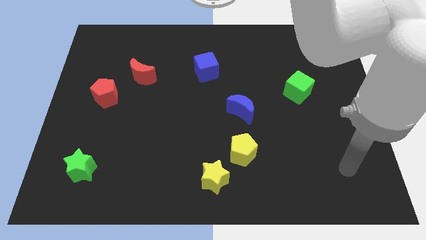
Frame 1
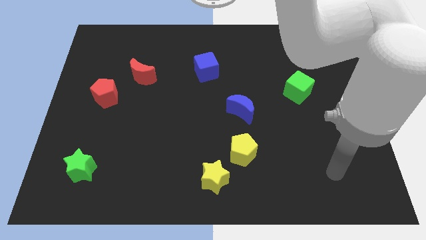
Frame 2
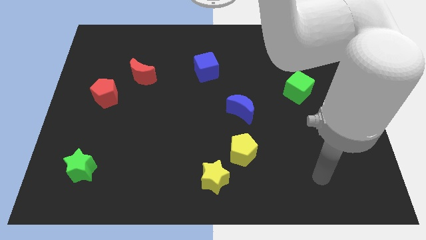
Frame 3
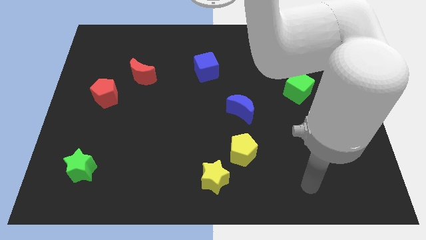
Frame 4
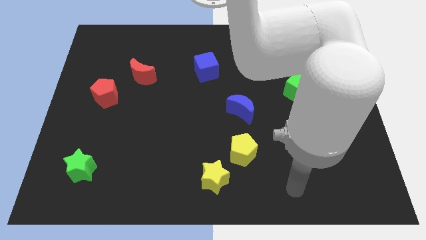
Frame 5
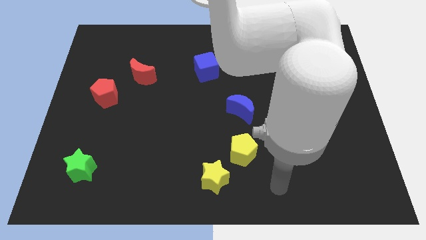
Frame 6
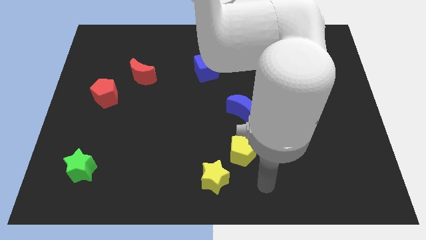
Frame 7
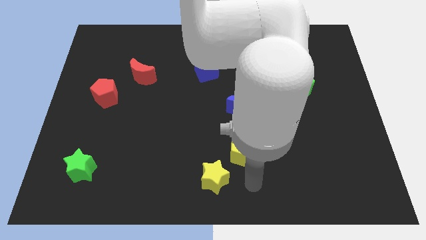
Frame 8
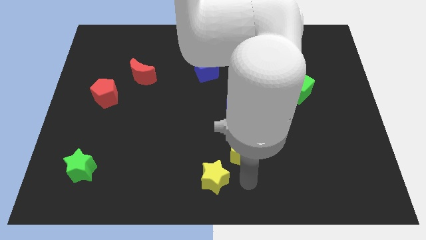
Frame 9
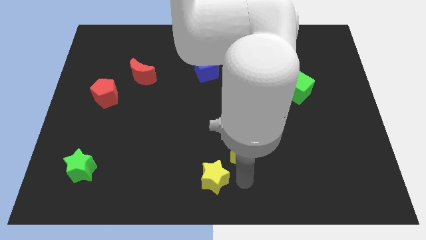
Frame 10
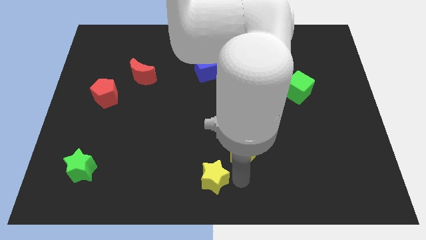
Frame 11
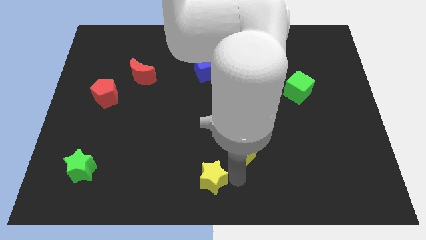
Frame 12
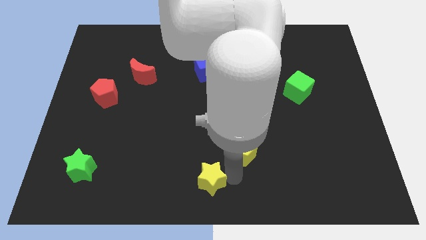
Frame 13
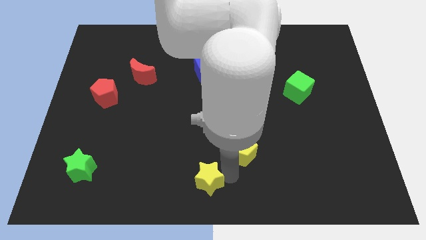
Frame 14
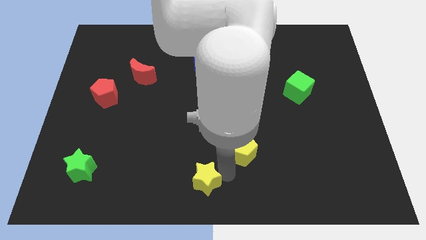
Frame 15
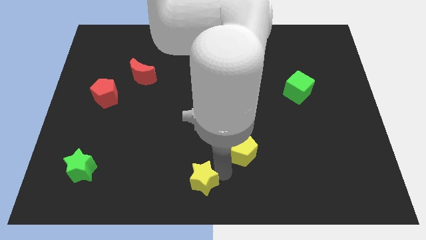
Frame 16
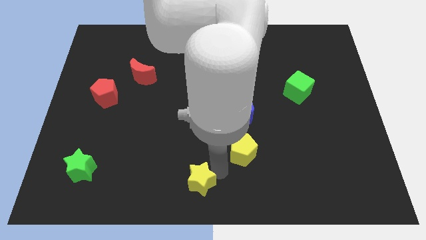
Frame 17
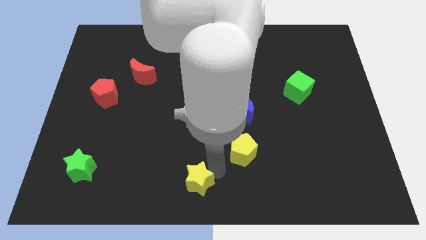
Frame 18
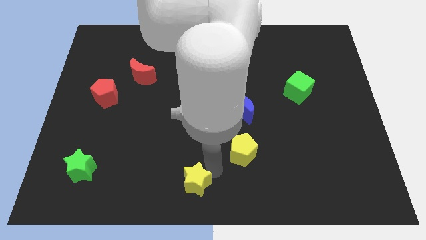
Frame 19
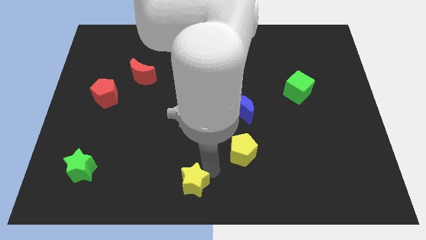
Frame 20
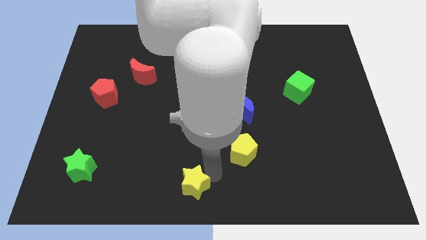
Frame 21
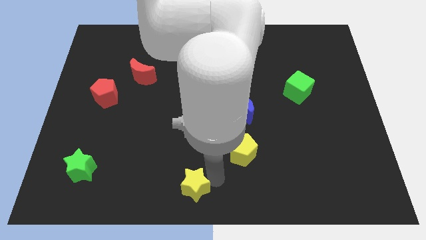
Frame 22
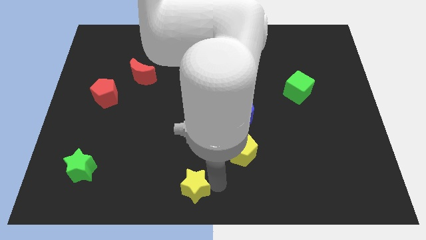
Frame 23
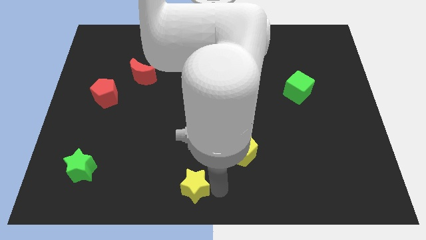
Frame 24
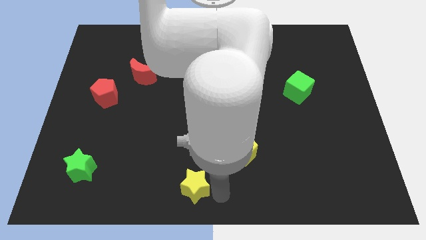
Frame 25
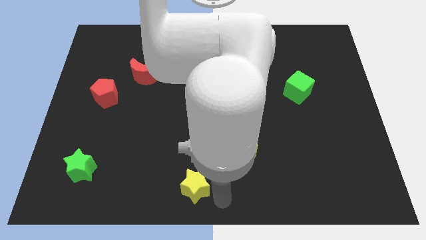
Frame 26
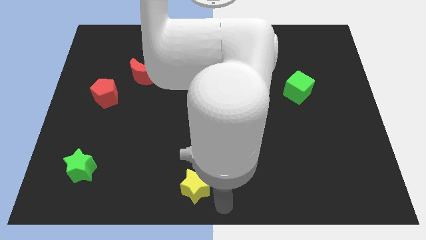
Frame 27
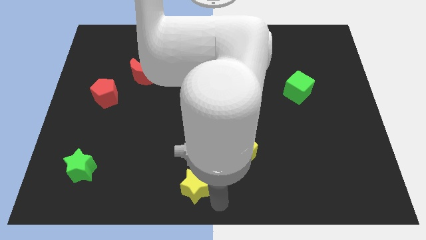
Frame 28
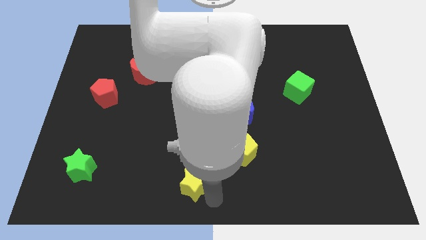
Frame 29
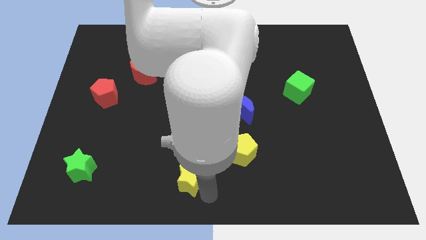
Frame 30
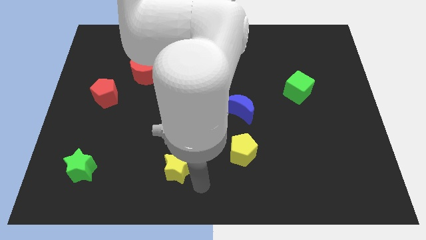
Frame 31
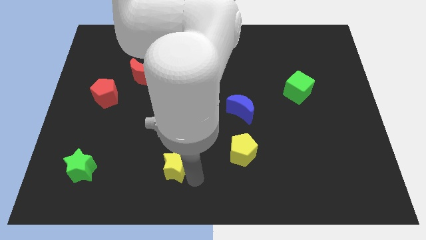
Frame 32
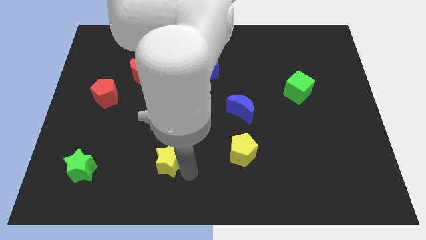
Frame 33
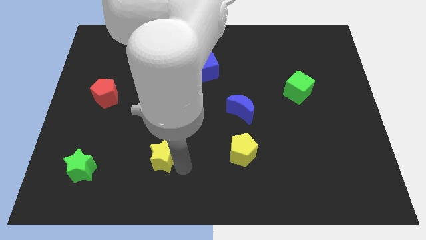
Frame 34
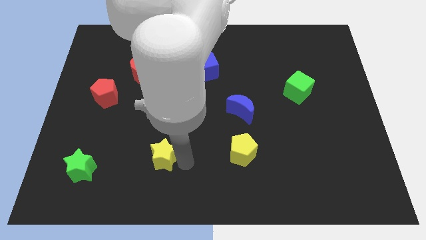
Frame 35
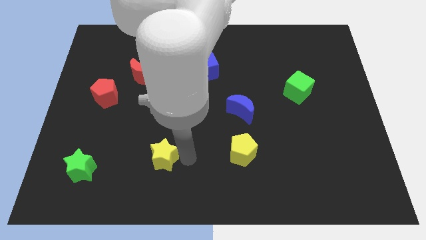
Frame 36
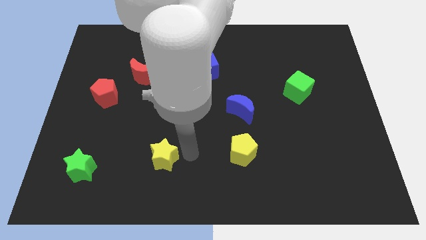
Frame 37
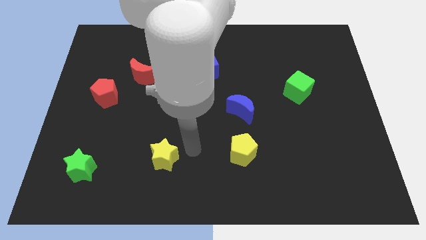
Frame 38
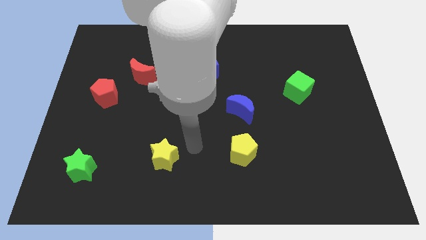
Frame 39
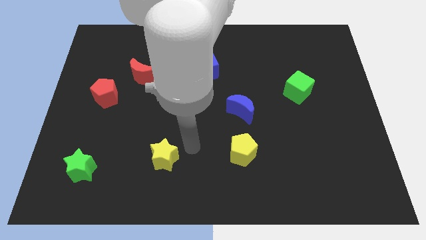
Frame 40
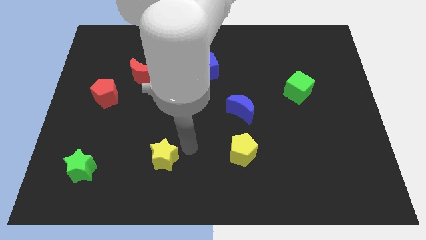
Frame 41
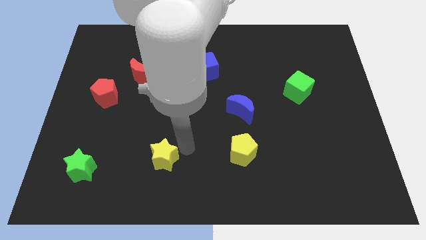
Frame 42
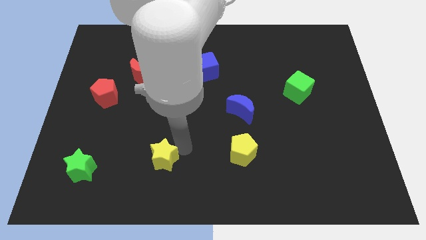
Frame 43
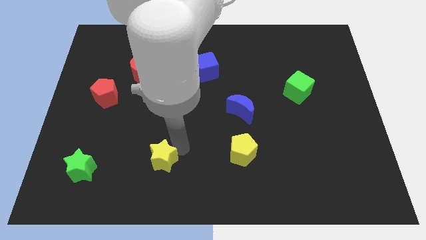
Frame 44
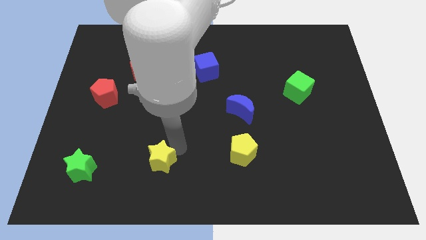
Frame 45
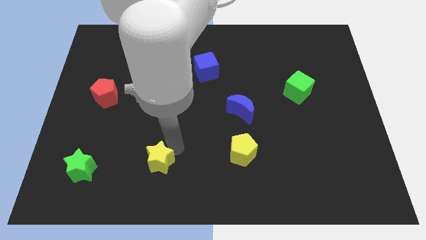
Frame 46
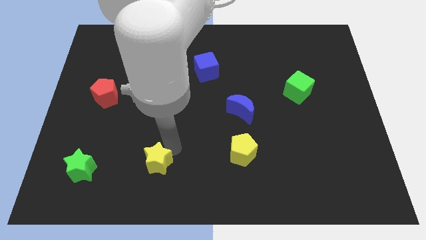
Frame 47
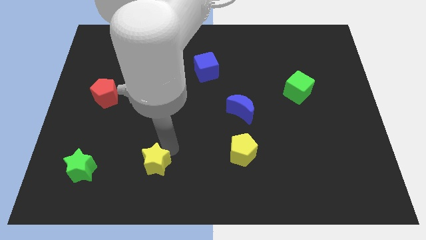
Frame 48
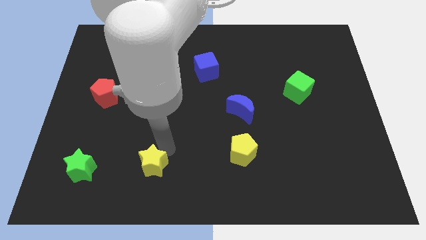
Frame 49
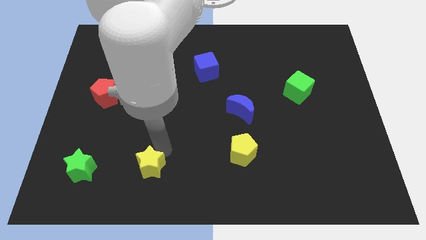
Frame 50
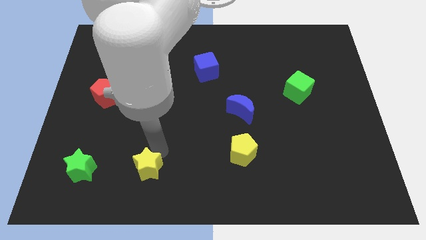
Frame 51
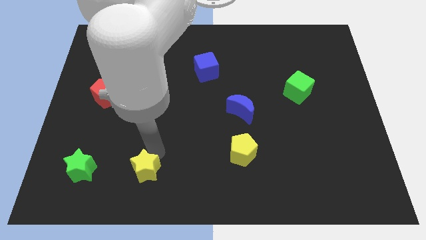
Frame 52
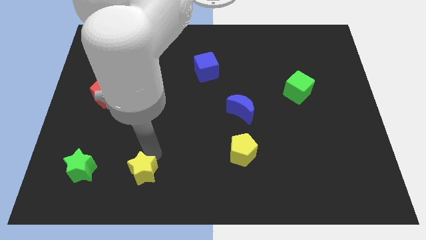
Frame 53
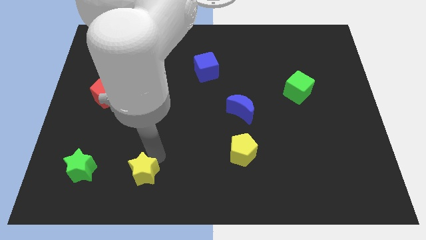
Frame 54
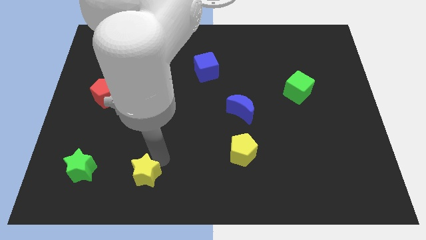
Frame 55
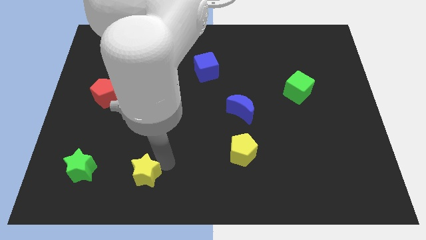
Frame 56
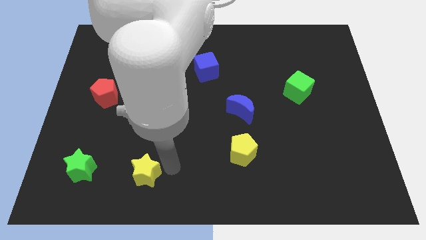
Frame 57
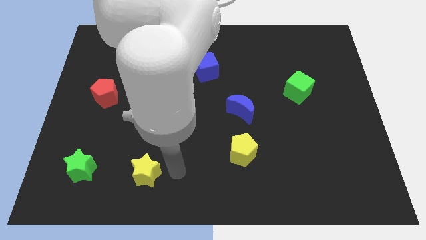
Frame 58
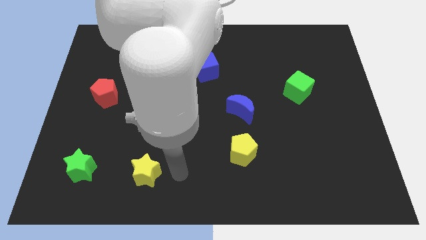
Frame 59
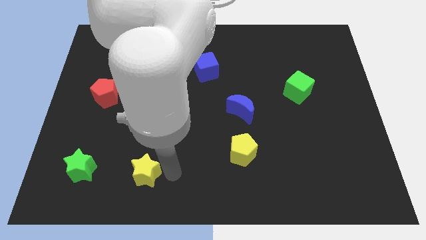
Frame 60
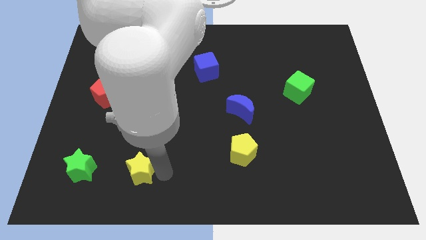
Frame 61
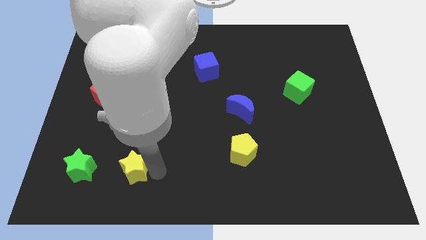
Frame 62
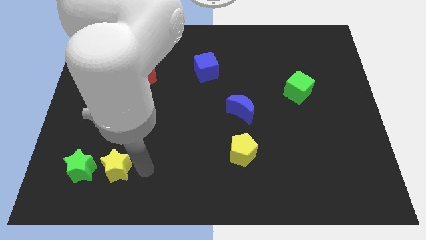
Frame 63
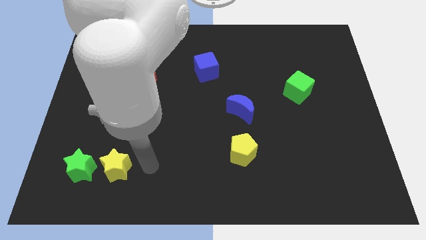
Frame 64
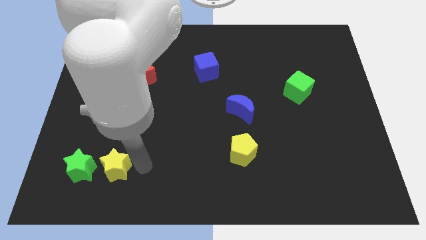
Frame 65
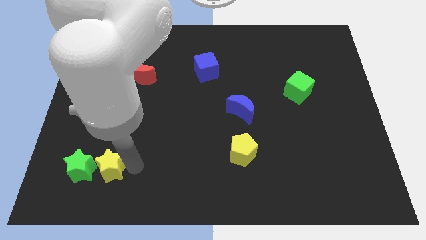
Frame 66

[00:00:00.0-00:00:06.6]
slide the yellow star next to the green star

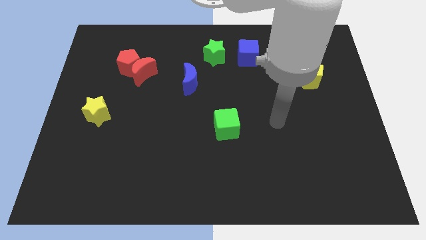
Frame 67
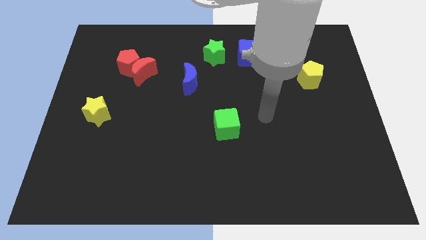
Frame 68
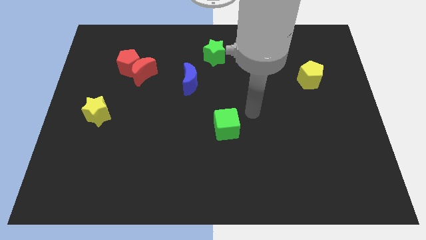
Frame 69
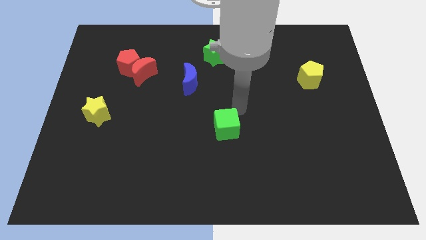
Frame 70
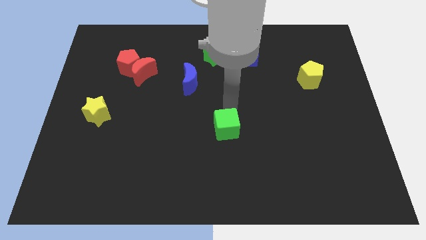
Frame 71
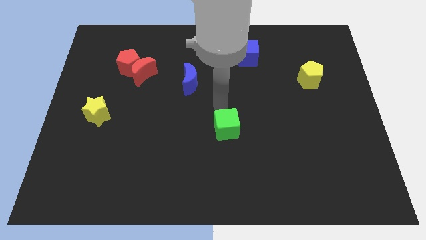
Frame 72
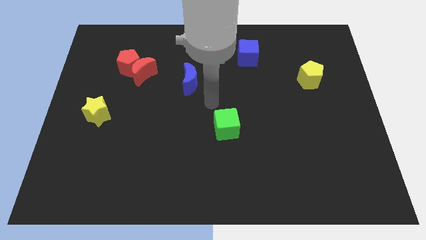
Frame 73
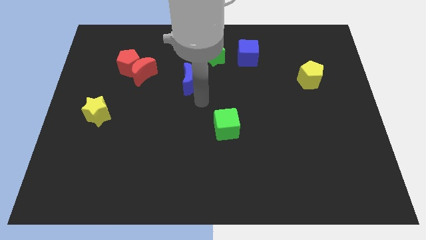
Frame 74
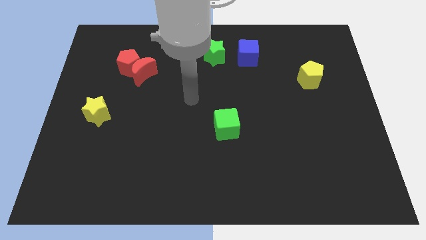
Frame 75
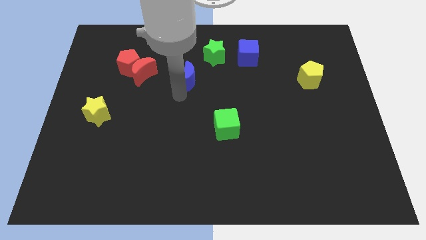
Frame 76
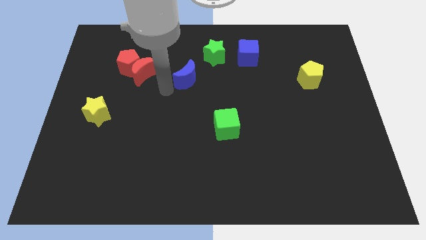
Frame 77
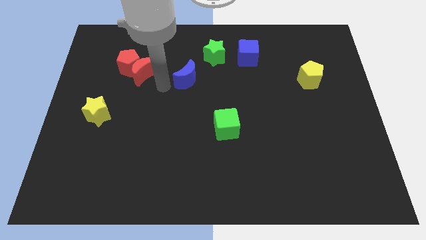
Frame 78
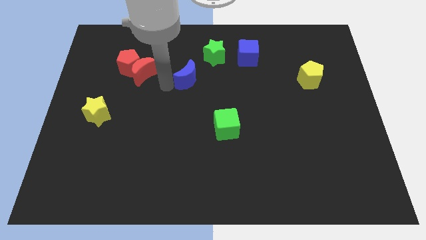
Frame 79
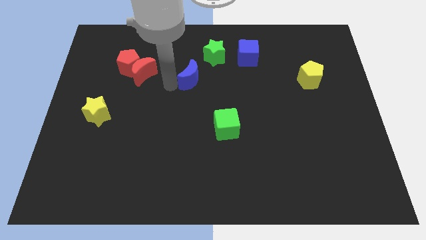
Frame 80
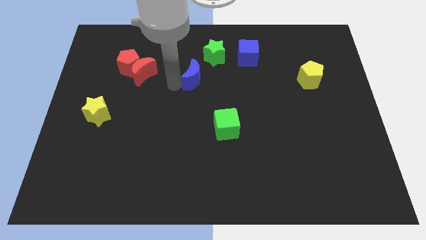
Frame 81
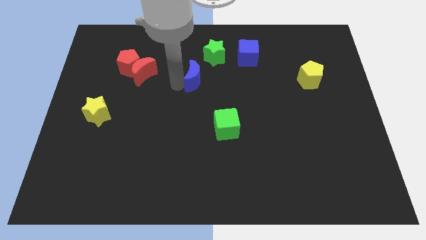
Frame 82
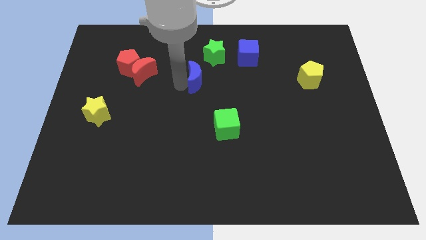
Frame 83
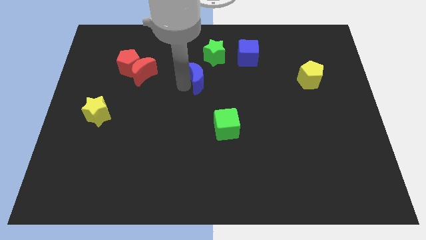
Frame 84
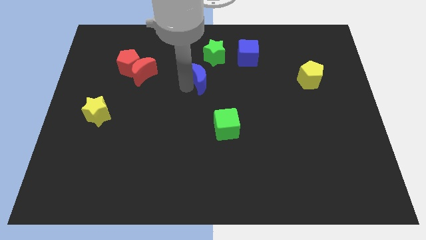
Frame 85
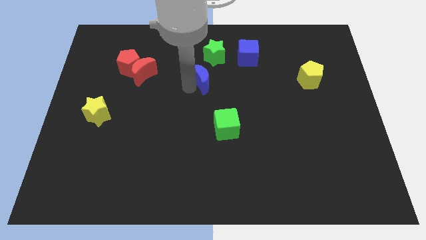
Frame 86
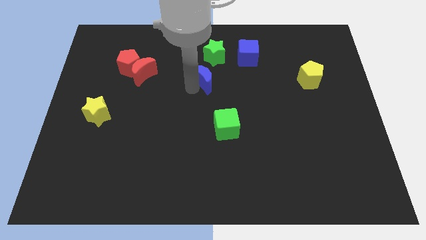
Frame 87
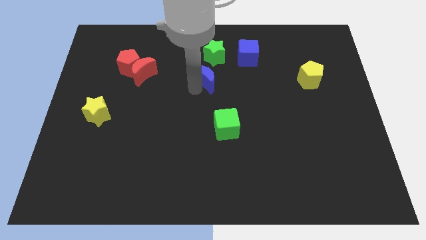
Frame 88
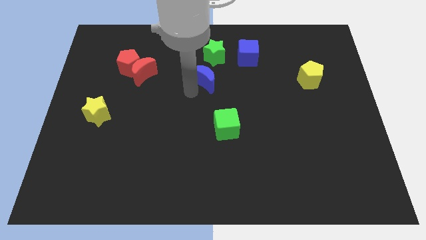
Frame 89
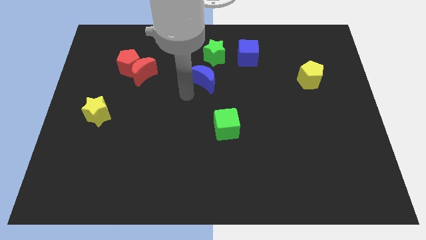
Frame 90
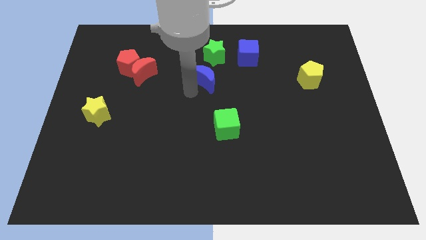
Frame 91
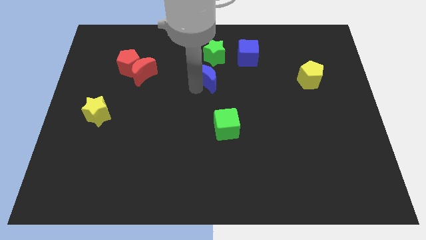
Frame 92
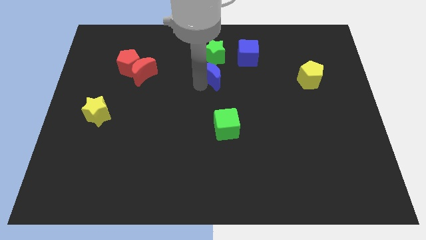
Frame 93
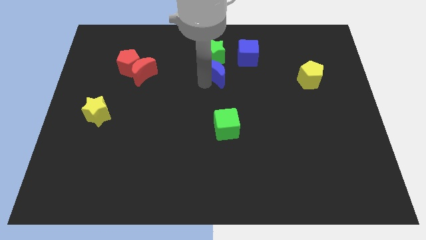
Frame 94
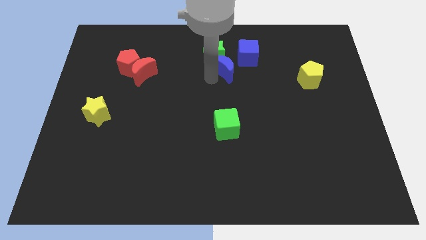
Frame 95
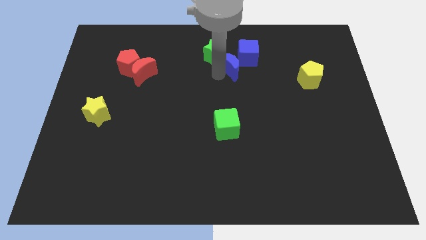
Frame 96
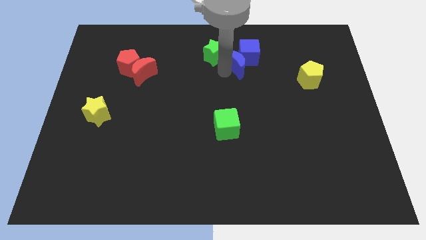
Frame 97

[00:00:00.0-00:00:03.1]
push the blue moon close to the blue cube
